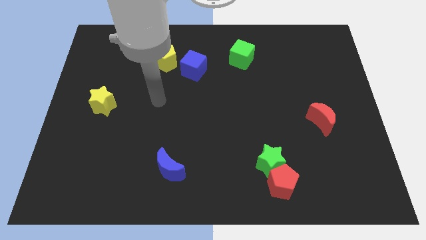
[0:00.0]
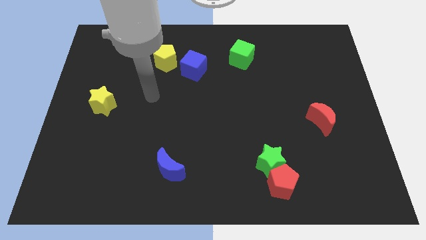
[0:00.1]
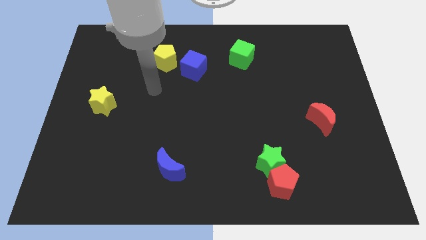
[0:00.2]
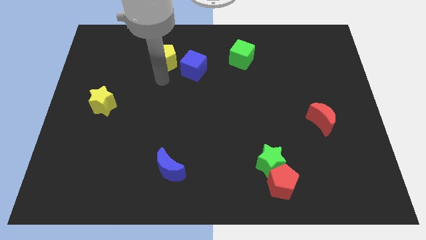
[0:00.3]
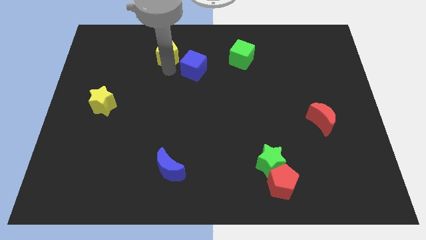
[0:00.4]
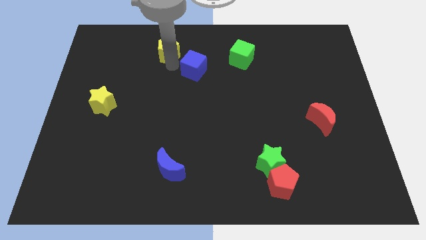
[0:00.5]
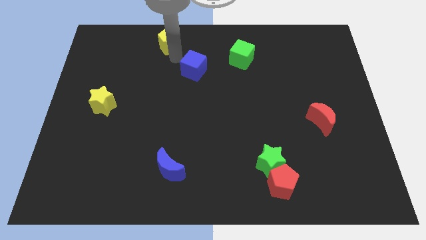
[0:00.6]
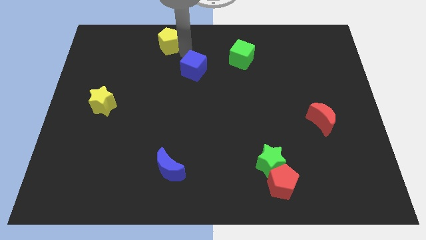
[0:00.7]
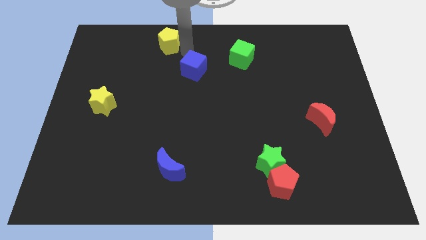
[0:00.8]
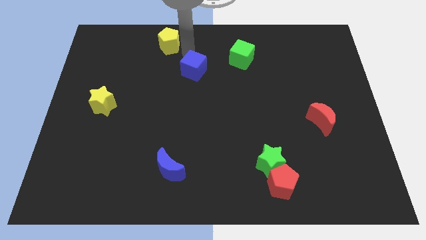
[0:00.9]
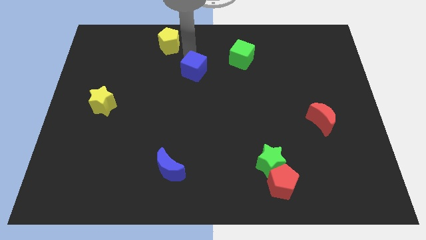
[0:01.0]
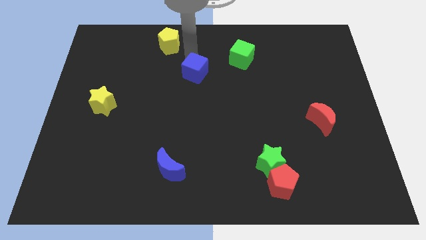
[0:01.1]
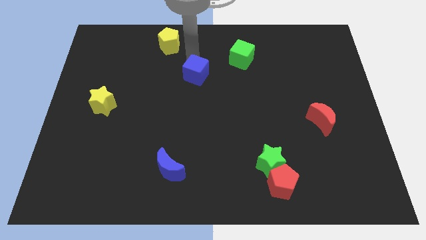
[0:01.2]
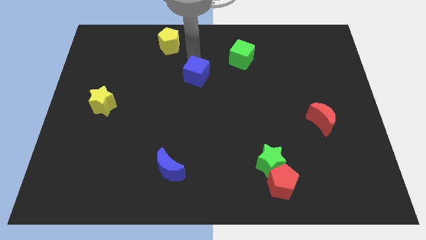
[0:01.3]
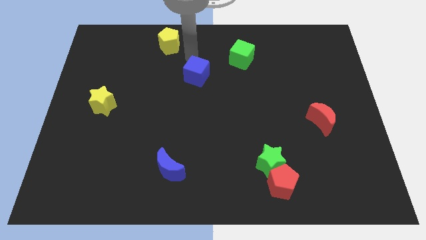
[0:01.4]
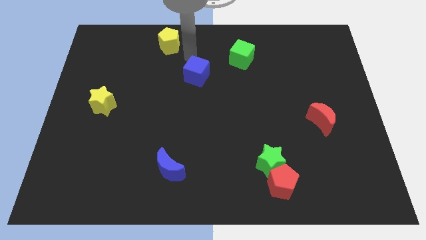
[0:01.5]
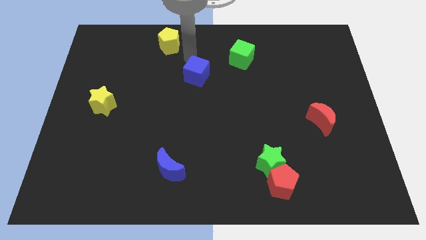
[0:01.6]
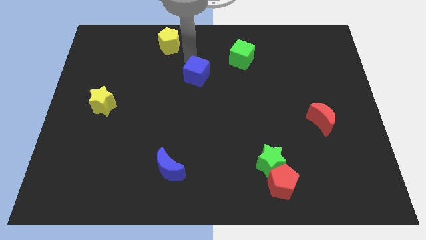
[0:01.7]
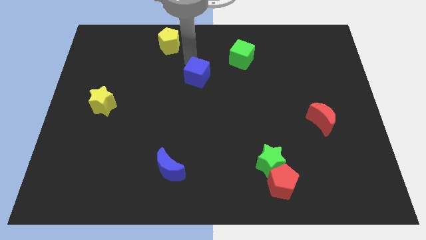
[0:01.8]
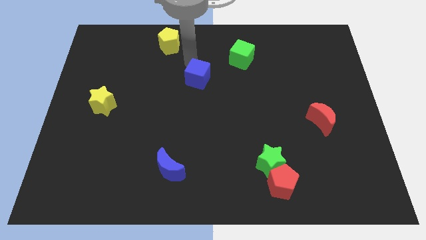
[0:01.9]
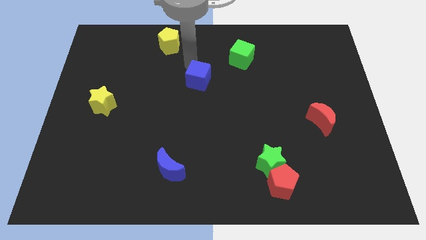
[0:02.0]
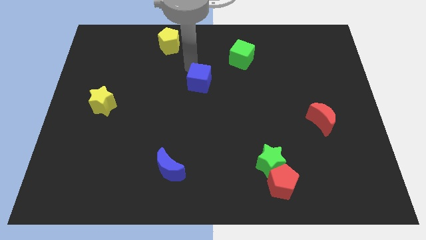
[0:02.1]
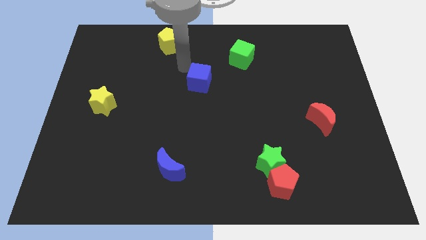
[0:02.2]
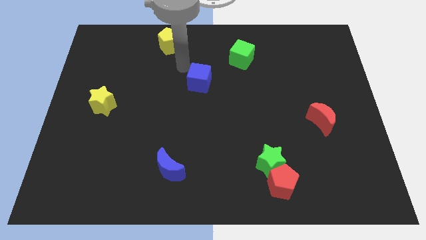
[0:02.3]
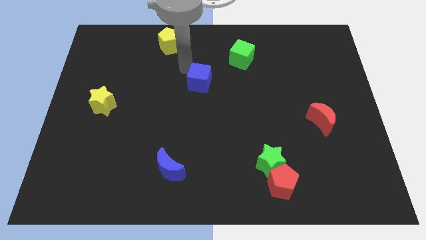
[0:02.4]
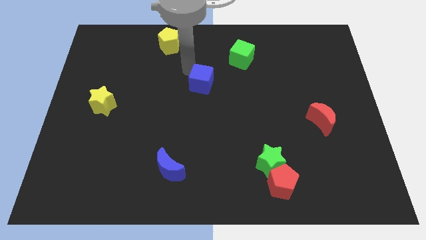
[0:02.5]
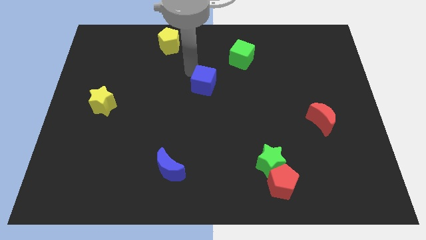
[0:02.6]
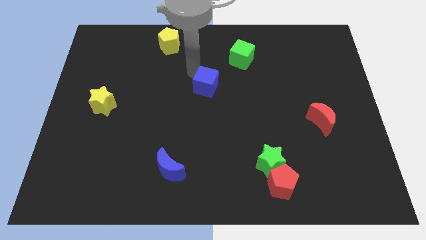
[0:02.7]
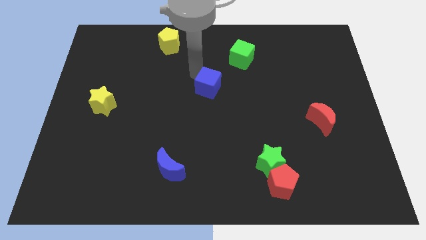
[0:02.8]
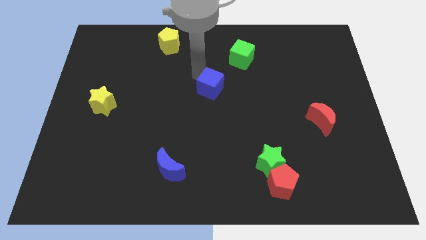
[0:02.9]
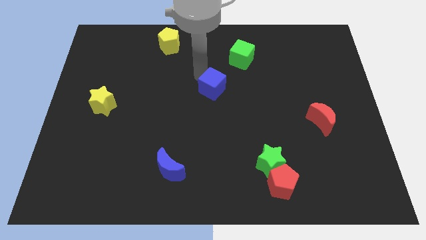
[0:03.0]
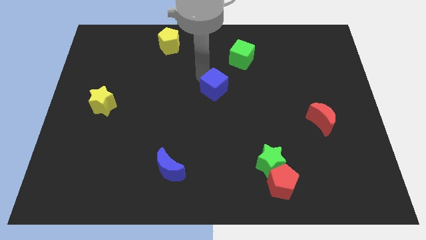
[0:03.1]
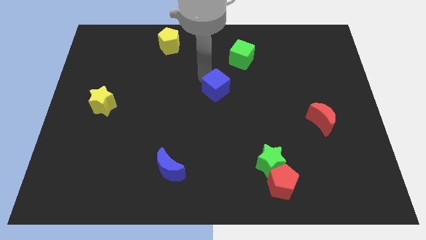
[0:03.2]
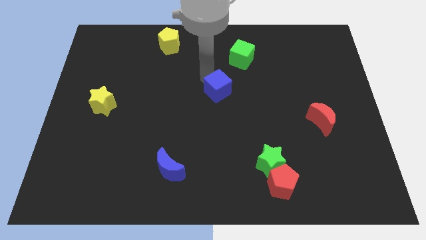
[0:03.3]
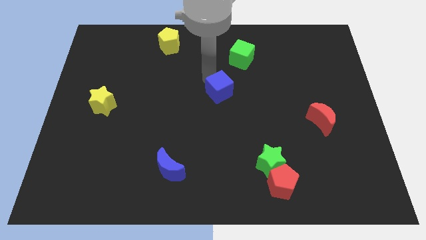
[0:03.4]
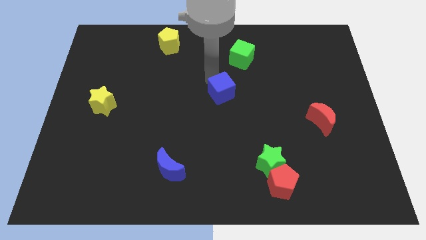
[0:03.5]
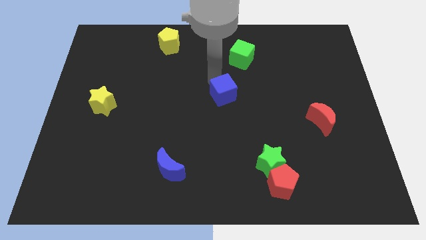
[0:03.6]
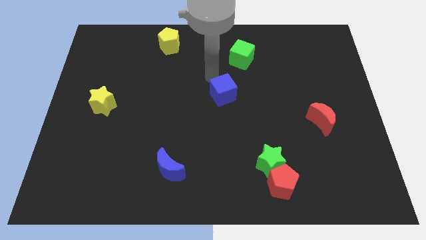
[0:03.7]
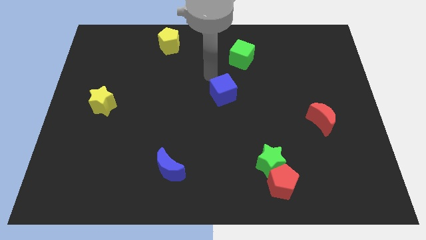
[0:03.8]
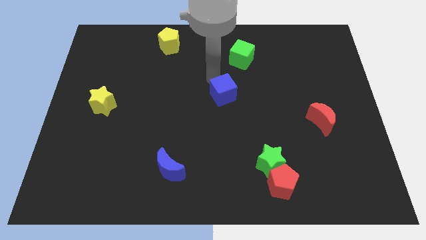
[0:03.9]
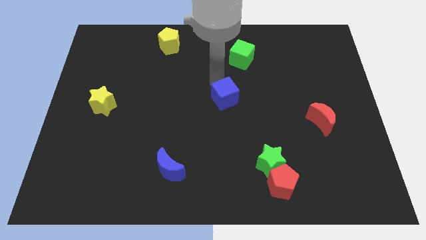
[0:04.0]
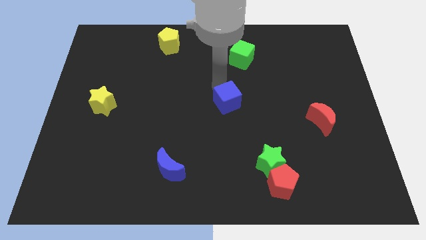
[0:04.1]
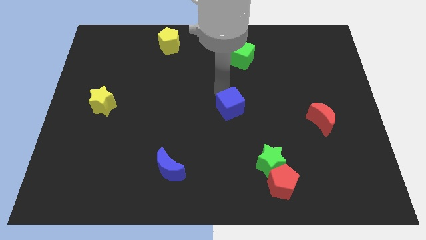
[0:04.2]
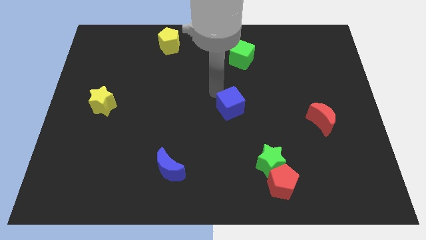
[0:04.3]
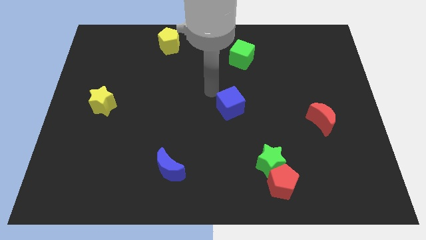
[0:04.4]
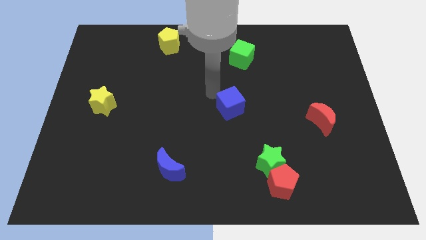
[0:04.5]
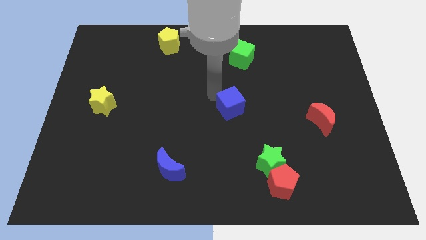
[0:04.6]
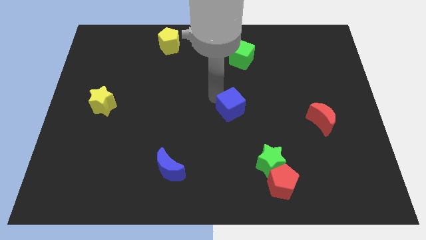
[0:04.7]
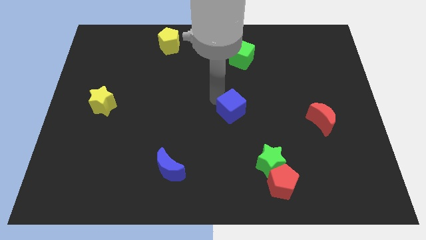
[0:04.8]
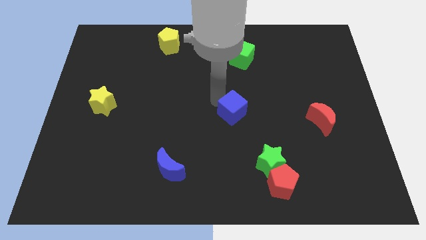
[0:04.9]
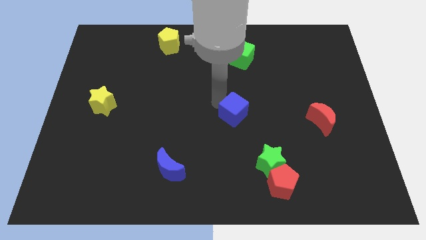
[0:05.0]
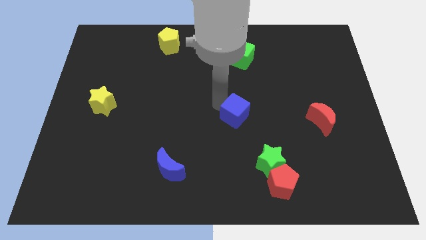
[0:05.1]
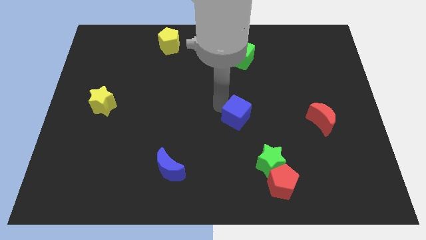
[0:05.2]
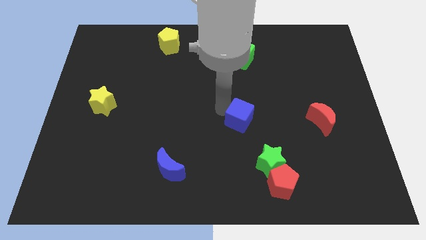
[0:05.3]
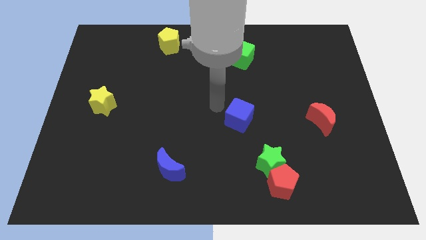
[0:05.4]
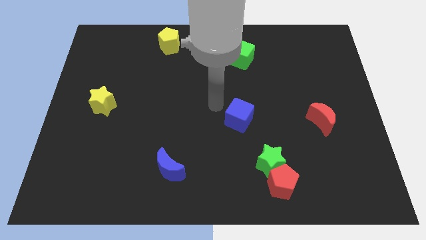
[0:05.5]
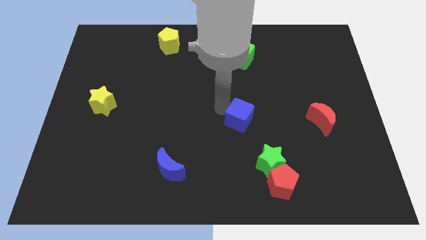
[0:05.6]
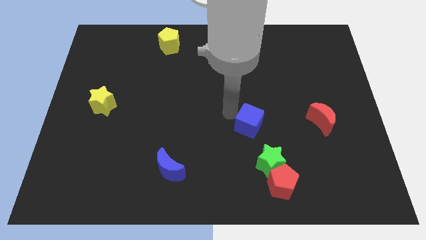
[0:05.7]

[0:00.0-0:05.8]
slide the blue cube downwards and then right

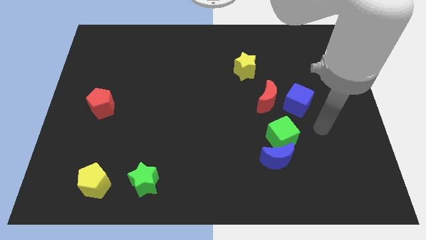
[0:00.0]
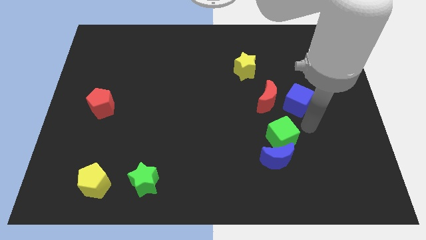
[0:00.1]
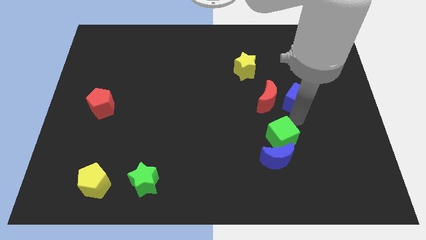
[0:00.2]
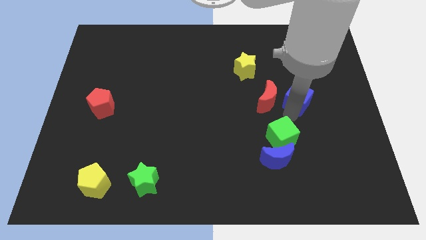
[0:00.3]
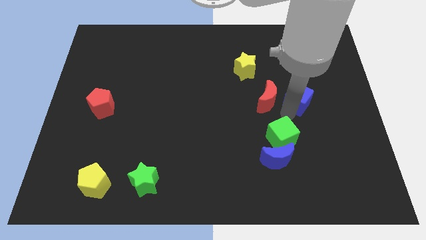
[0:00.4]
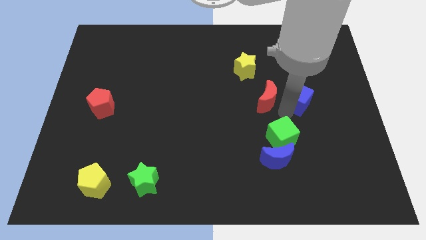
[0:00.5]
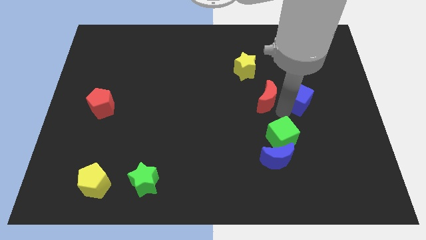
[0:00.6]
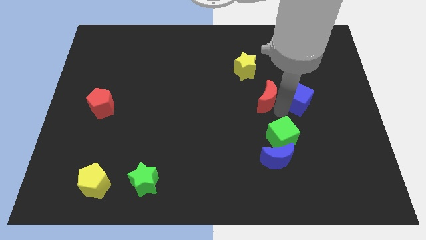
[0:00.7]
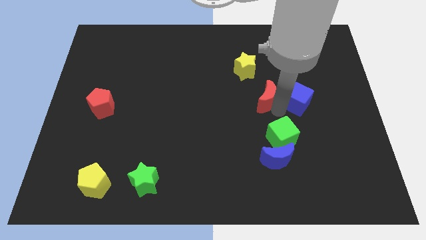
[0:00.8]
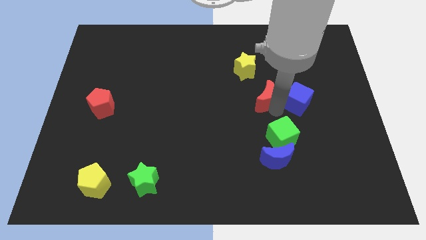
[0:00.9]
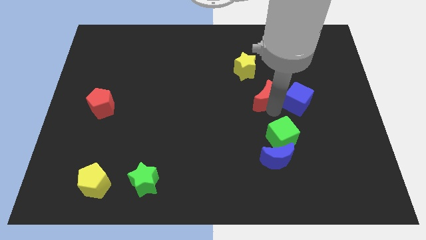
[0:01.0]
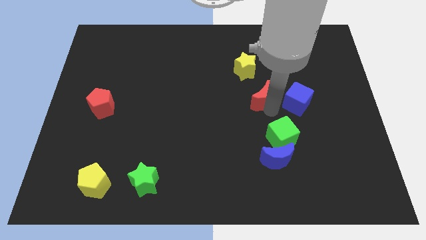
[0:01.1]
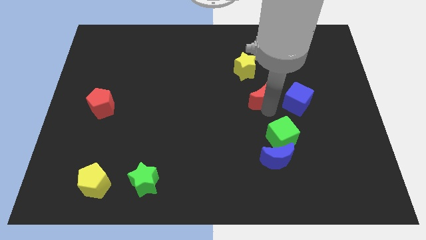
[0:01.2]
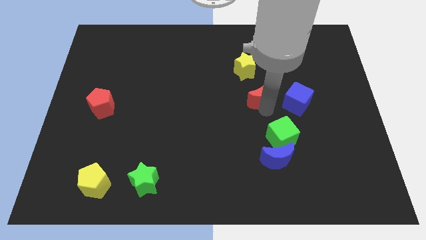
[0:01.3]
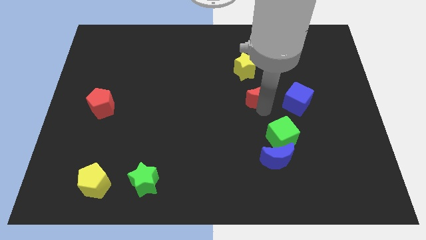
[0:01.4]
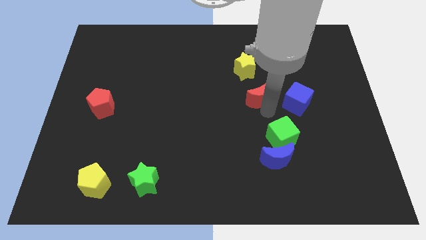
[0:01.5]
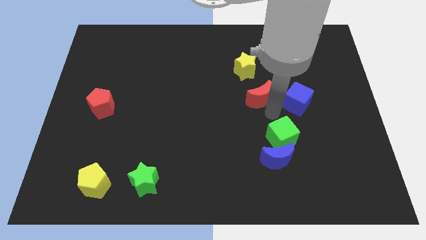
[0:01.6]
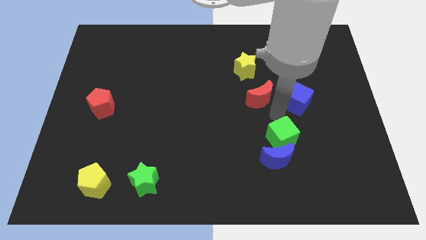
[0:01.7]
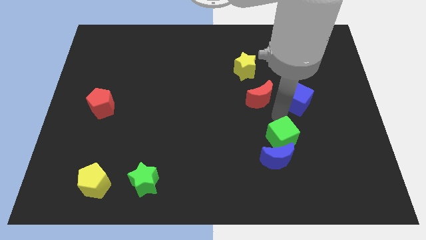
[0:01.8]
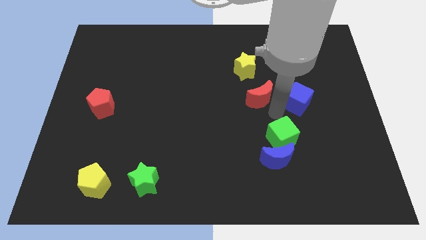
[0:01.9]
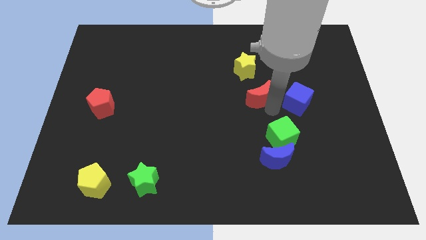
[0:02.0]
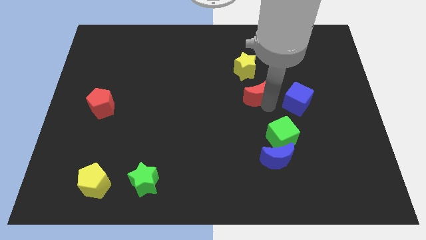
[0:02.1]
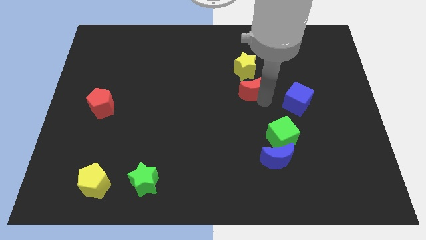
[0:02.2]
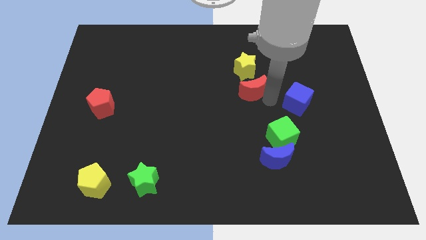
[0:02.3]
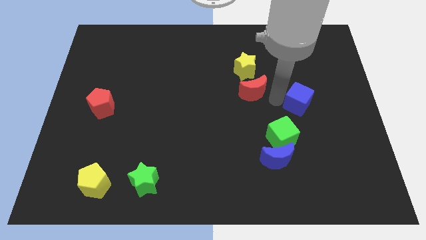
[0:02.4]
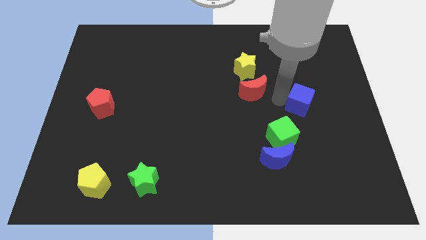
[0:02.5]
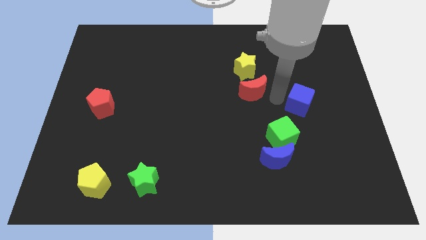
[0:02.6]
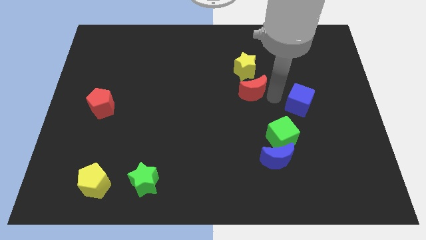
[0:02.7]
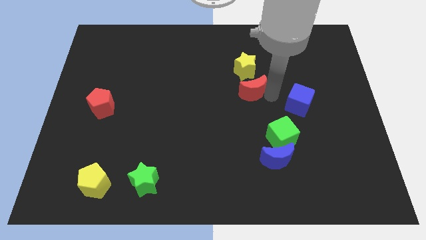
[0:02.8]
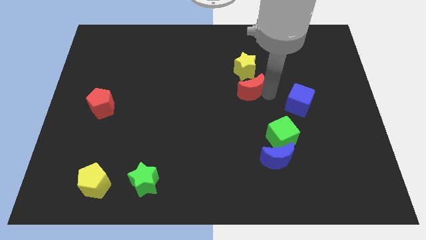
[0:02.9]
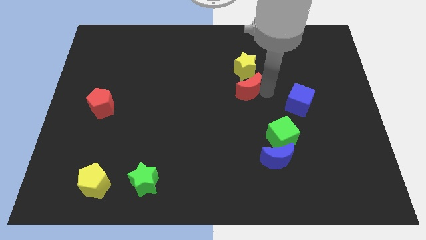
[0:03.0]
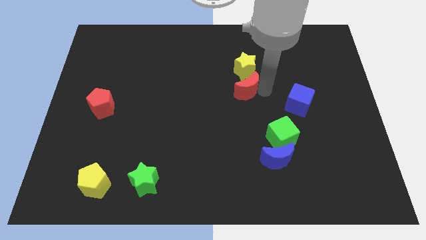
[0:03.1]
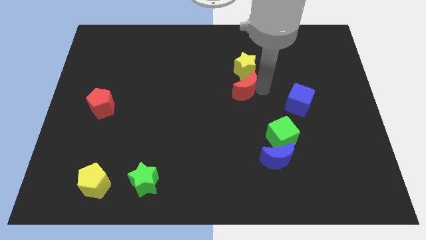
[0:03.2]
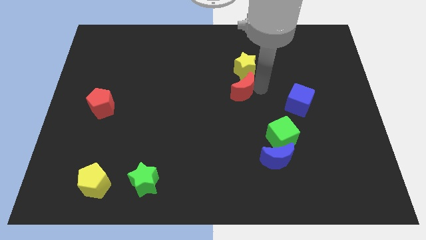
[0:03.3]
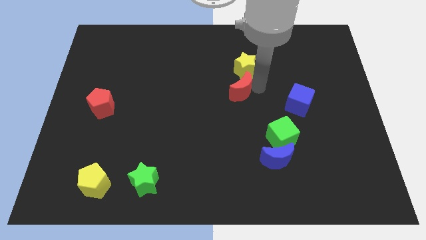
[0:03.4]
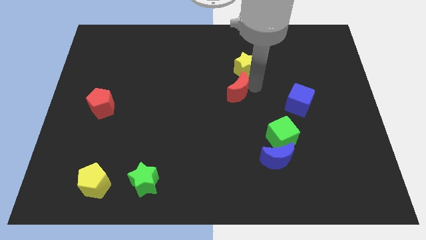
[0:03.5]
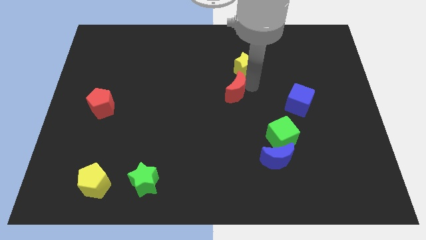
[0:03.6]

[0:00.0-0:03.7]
slide the red moon upwards and then left slightly
